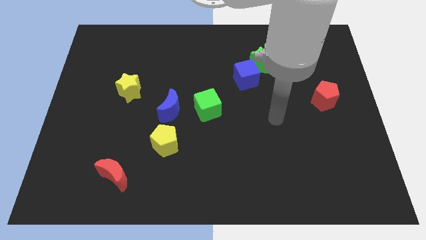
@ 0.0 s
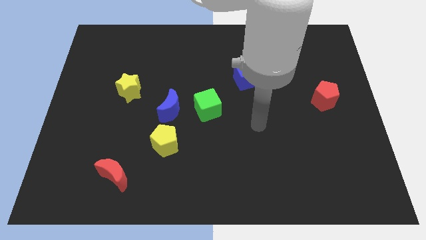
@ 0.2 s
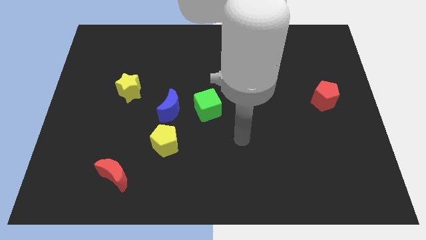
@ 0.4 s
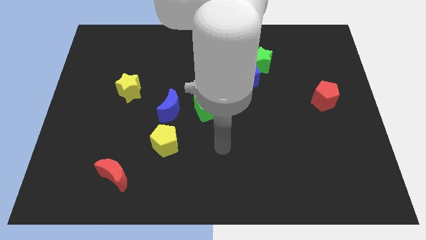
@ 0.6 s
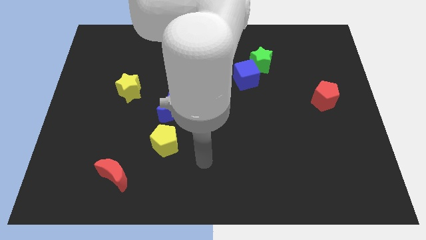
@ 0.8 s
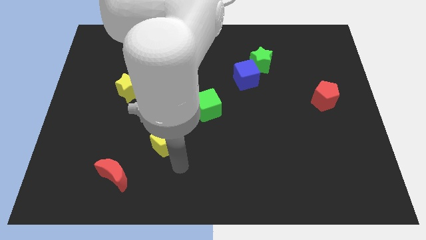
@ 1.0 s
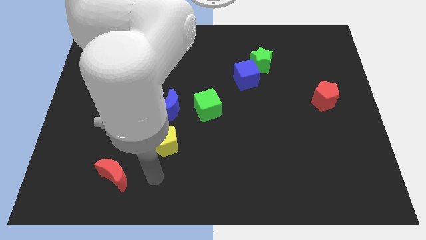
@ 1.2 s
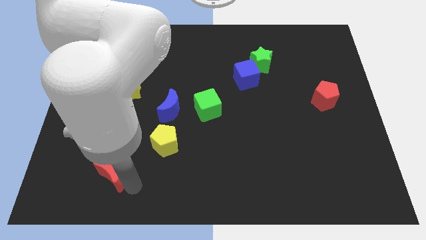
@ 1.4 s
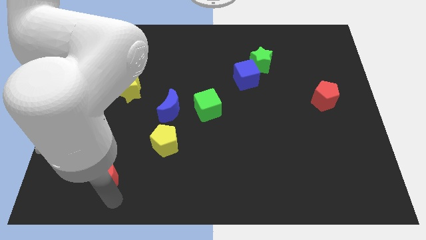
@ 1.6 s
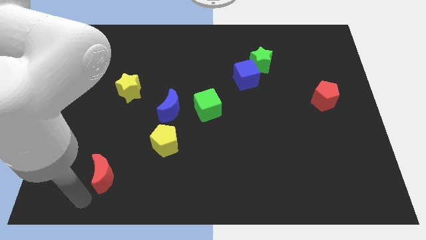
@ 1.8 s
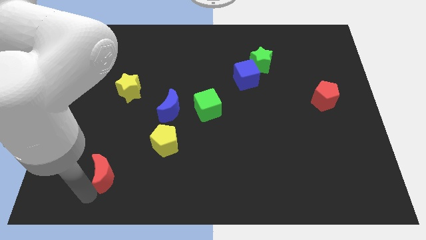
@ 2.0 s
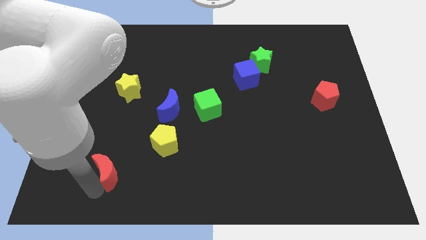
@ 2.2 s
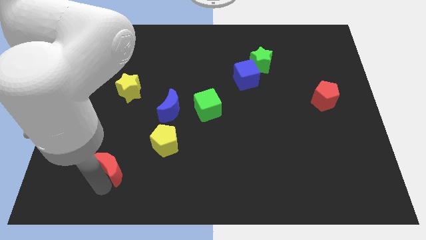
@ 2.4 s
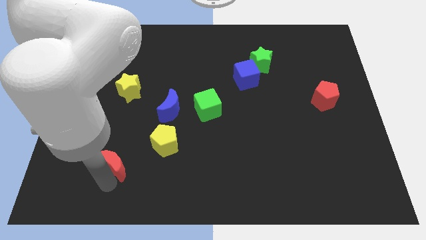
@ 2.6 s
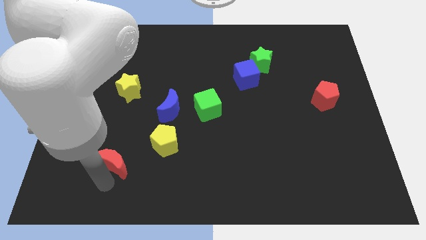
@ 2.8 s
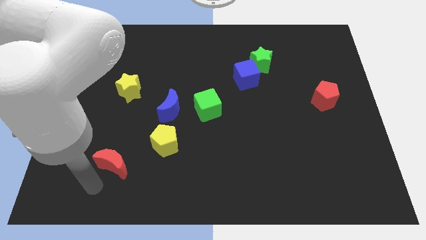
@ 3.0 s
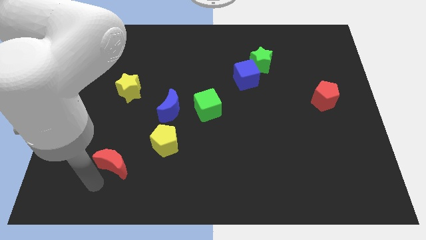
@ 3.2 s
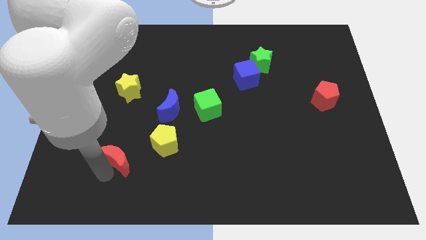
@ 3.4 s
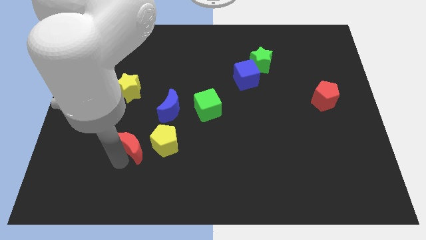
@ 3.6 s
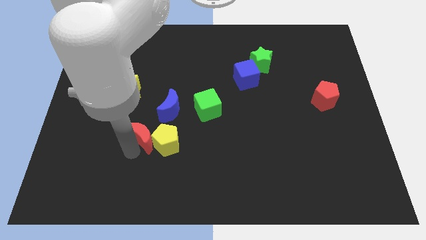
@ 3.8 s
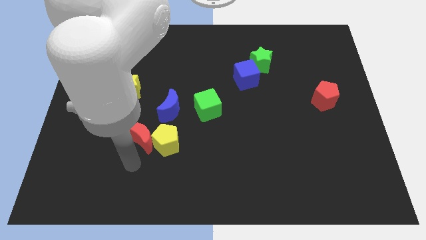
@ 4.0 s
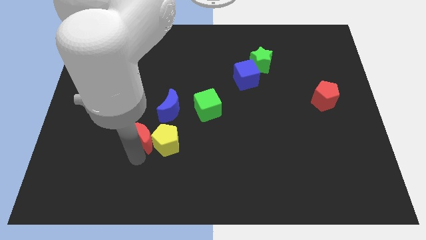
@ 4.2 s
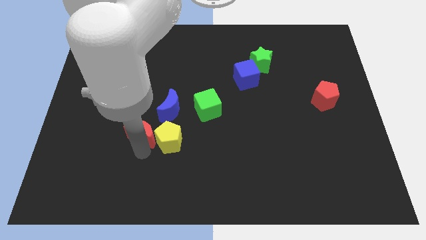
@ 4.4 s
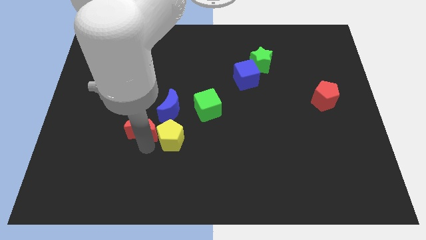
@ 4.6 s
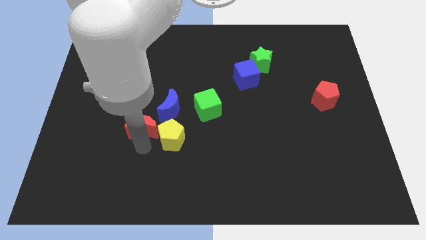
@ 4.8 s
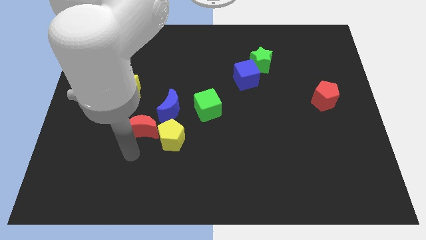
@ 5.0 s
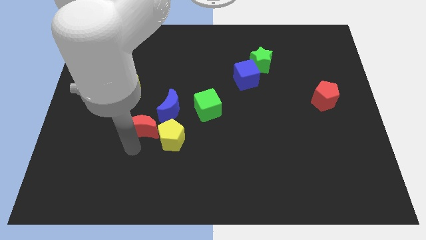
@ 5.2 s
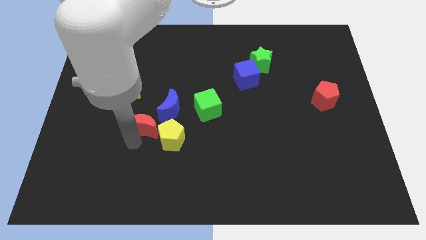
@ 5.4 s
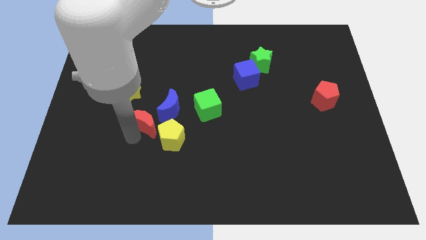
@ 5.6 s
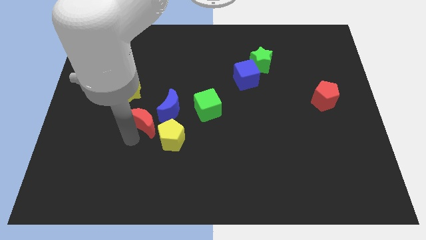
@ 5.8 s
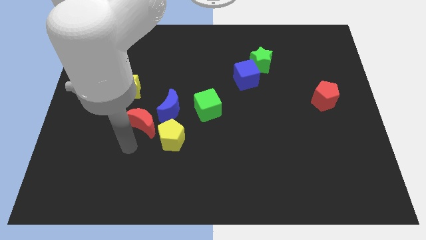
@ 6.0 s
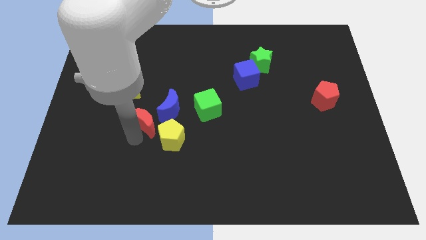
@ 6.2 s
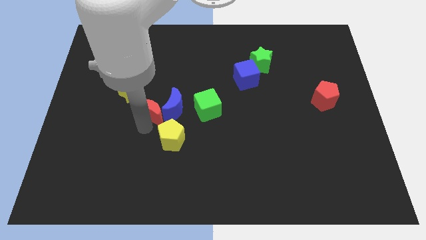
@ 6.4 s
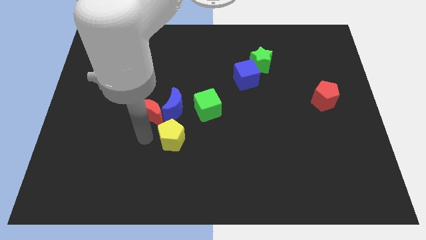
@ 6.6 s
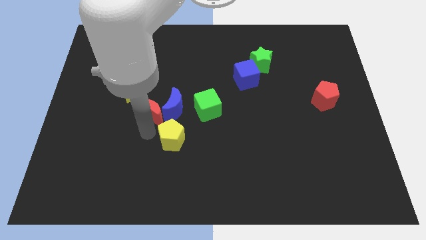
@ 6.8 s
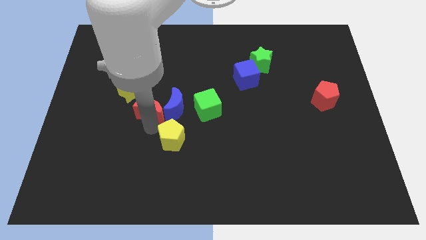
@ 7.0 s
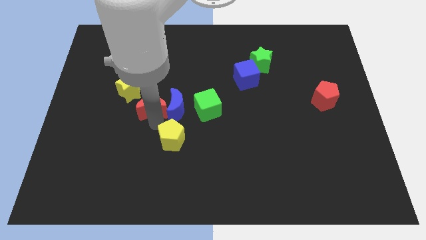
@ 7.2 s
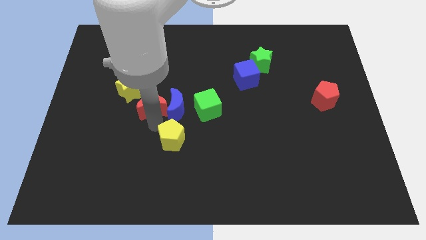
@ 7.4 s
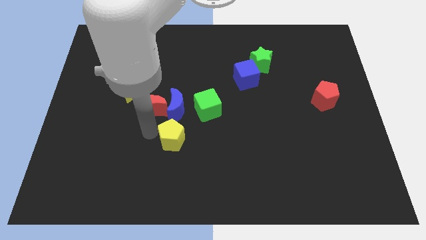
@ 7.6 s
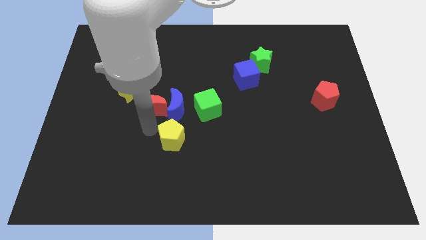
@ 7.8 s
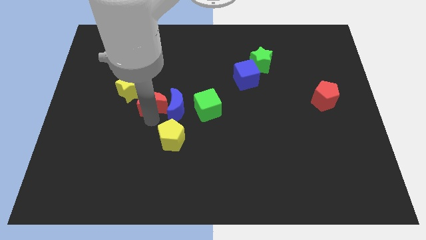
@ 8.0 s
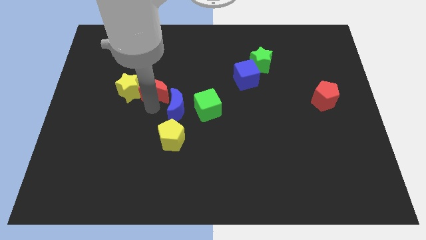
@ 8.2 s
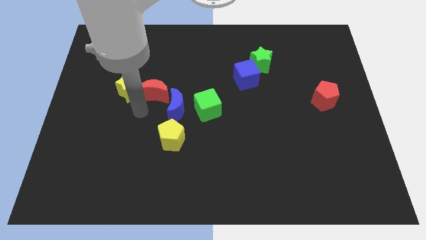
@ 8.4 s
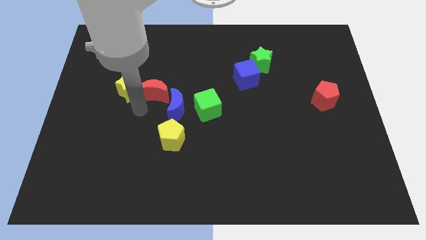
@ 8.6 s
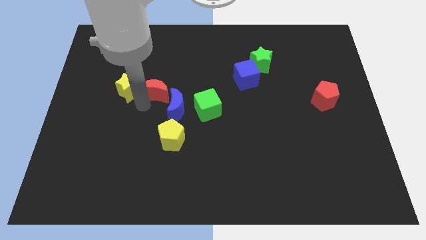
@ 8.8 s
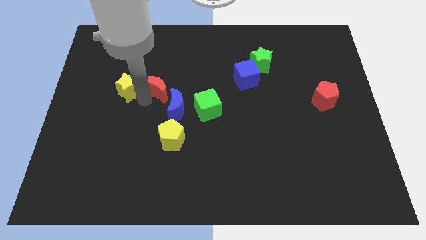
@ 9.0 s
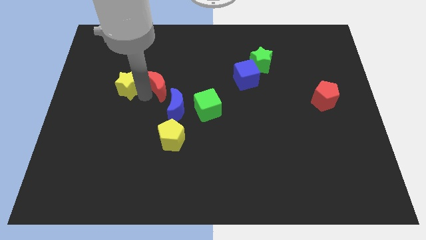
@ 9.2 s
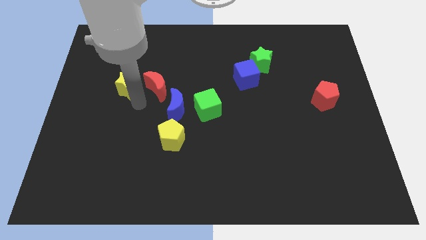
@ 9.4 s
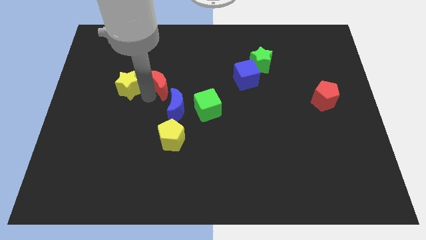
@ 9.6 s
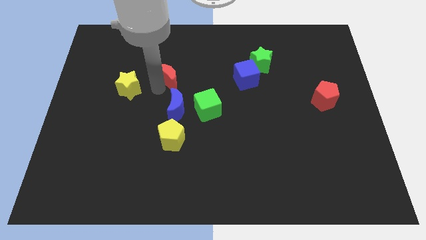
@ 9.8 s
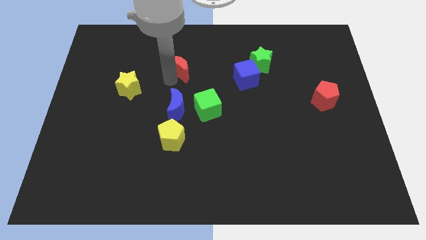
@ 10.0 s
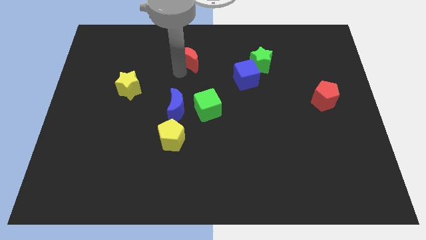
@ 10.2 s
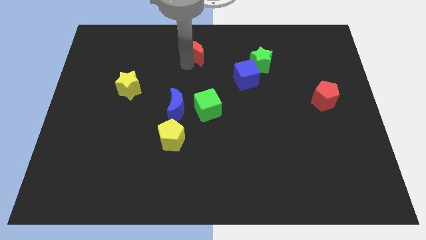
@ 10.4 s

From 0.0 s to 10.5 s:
slide the red moon to the top

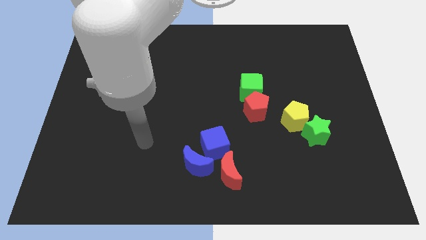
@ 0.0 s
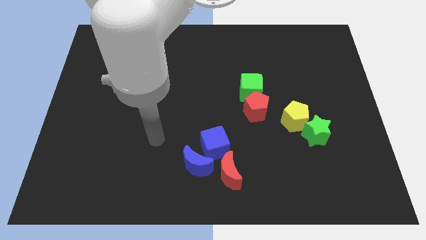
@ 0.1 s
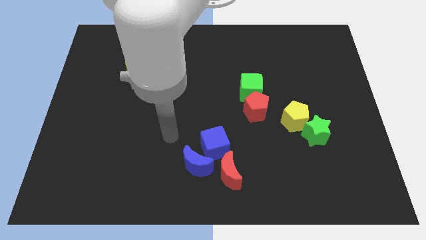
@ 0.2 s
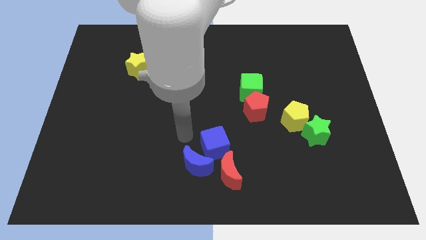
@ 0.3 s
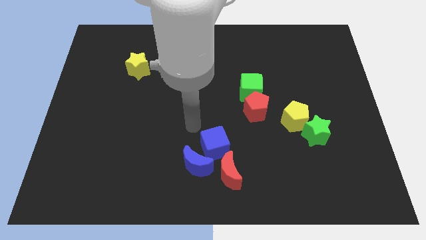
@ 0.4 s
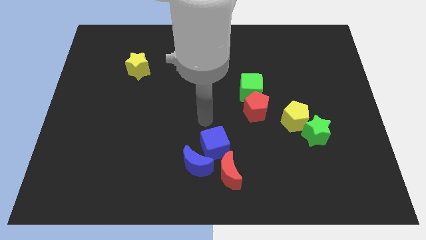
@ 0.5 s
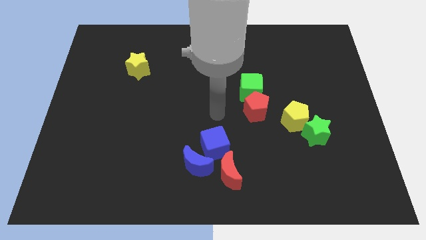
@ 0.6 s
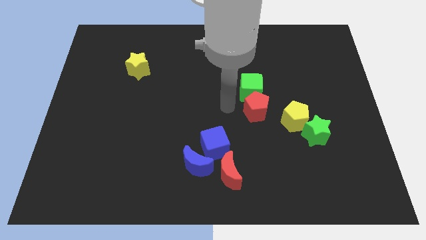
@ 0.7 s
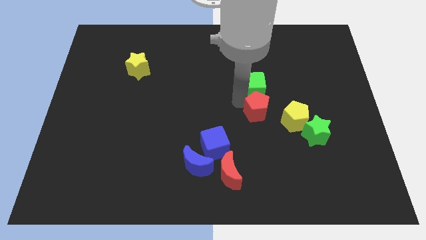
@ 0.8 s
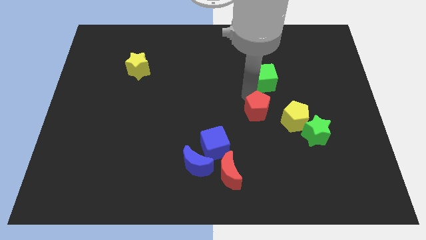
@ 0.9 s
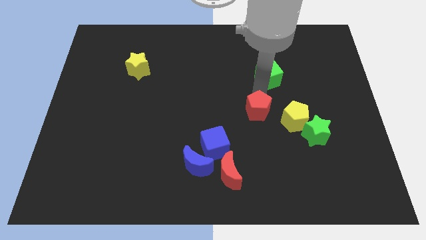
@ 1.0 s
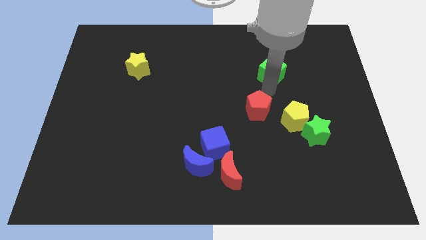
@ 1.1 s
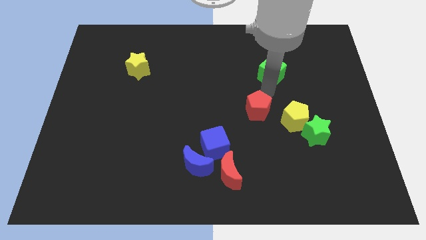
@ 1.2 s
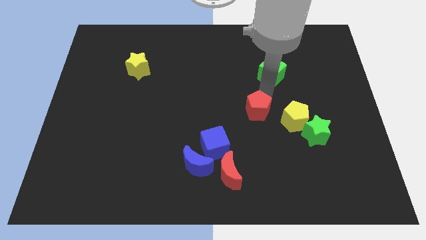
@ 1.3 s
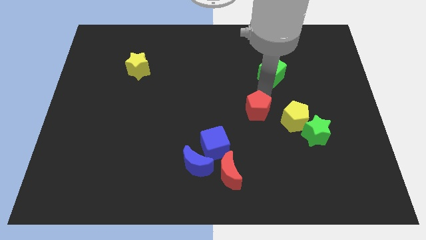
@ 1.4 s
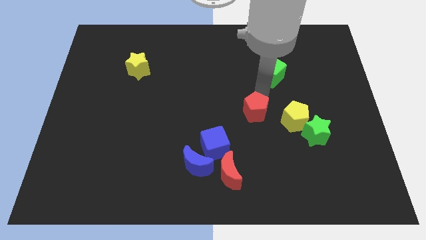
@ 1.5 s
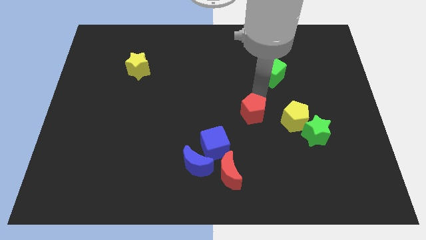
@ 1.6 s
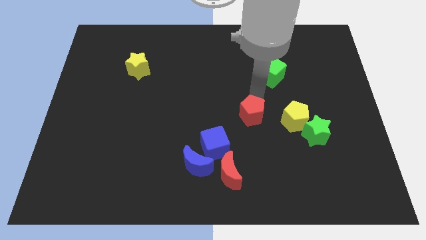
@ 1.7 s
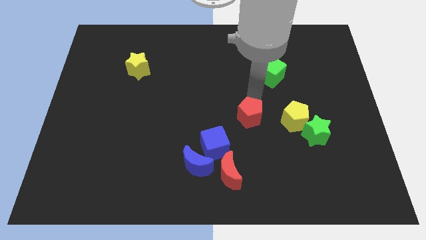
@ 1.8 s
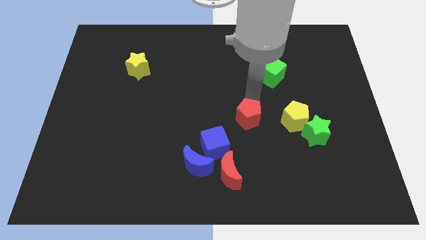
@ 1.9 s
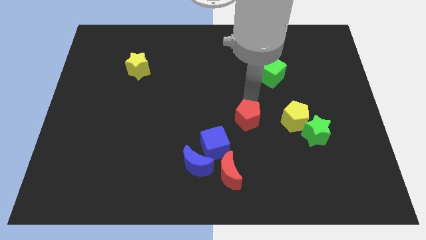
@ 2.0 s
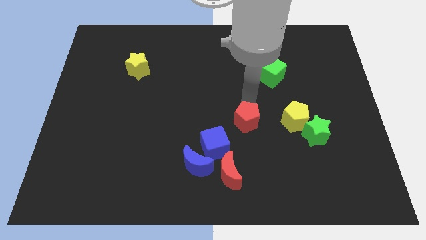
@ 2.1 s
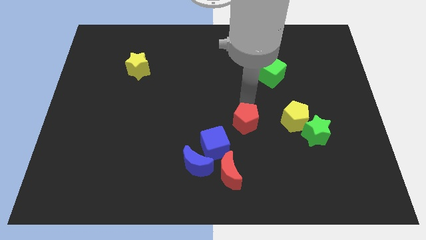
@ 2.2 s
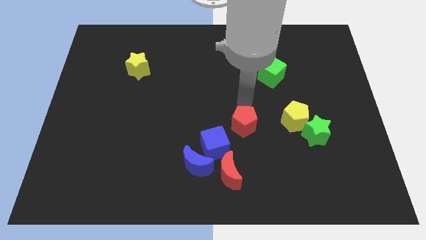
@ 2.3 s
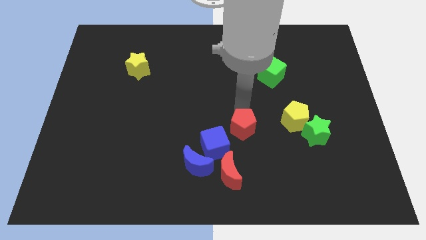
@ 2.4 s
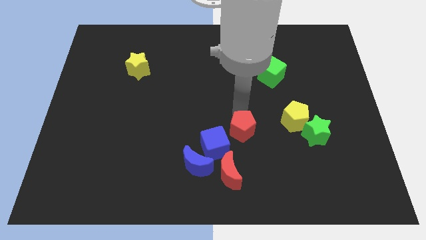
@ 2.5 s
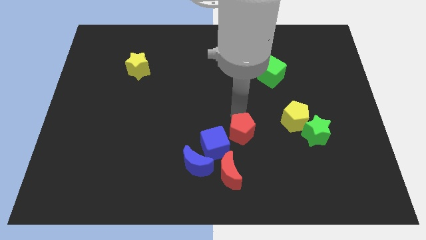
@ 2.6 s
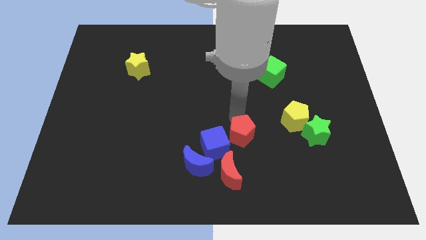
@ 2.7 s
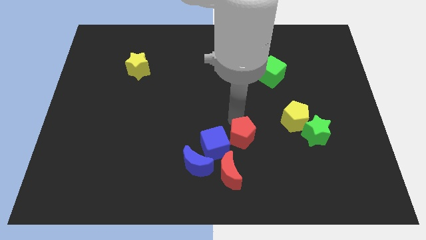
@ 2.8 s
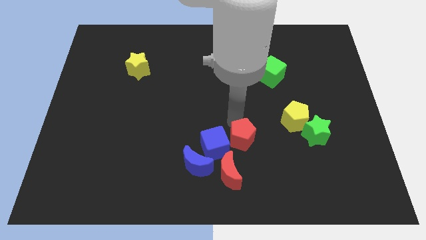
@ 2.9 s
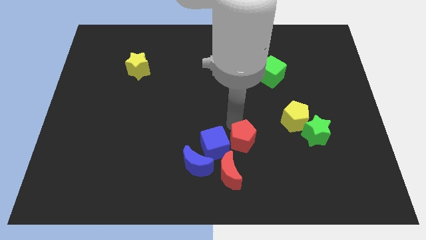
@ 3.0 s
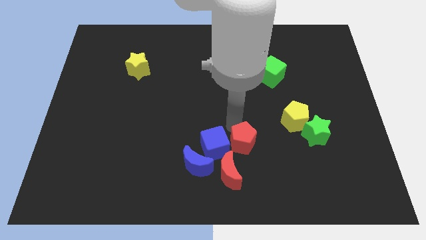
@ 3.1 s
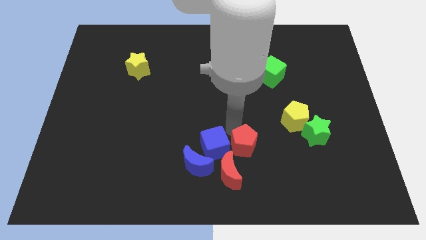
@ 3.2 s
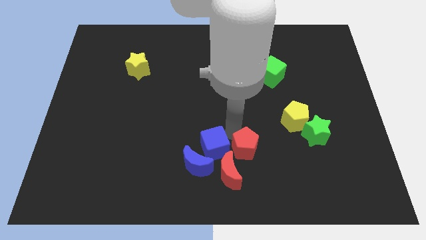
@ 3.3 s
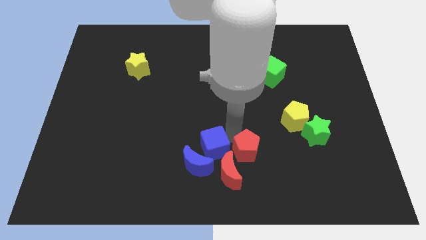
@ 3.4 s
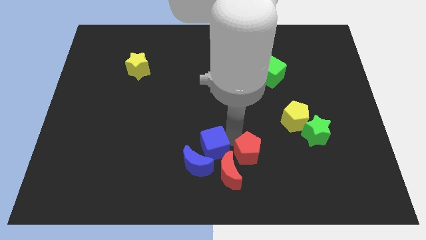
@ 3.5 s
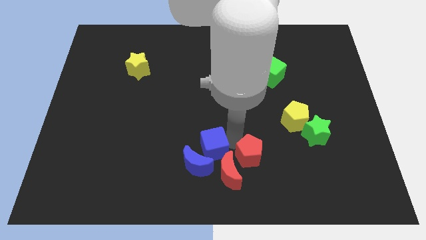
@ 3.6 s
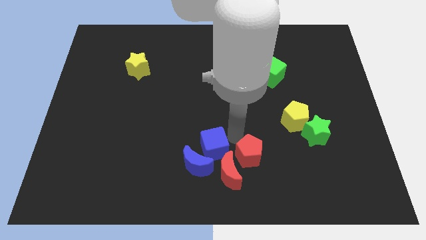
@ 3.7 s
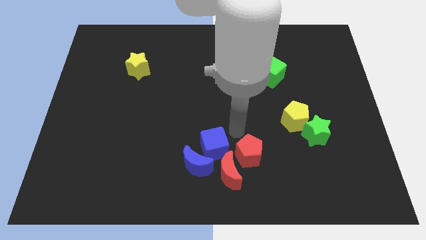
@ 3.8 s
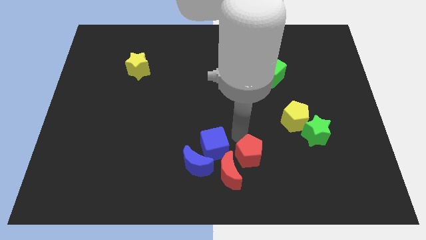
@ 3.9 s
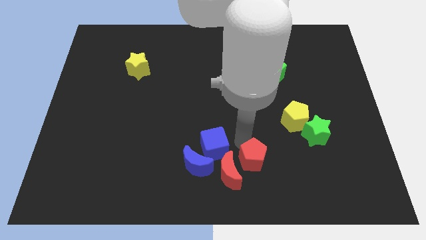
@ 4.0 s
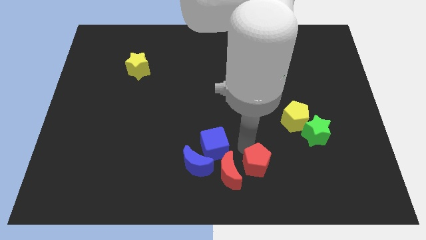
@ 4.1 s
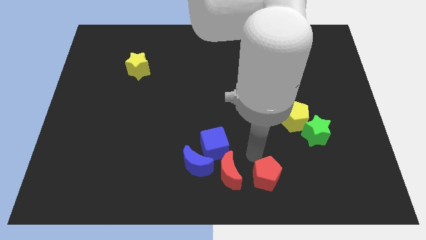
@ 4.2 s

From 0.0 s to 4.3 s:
move the red pentagon to the bottom
